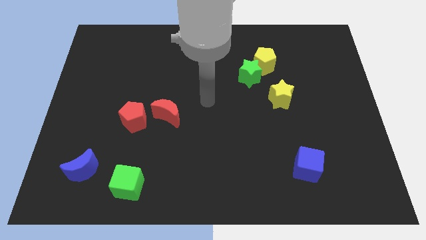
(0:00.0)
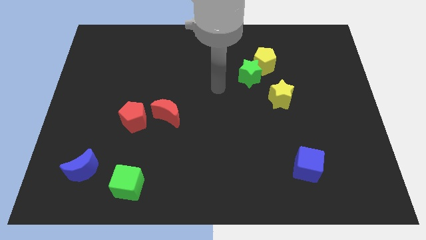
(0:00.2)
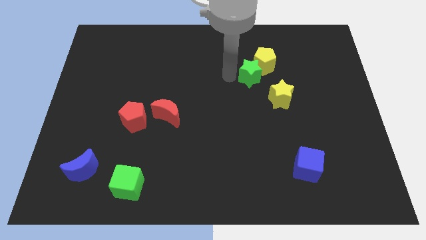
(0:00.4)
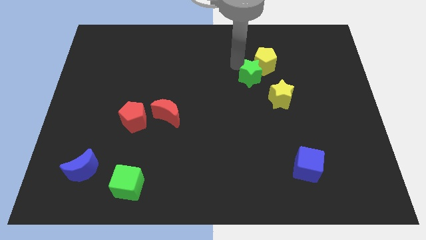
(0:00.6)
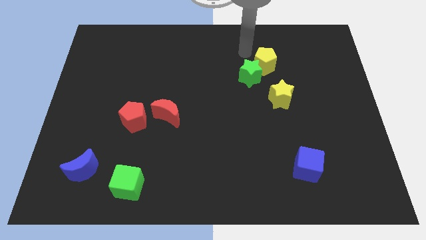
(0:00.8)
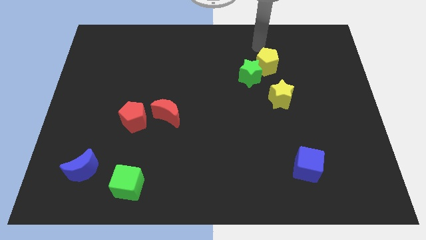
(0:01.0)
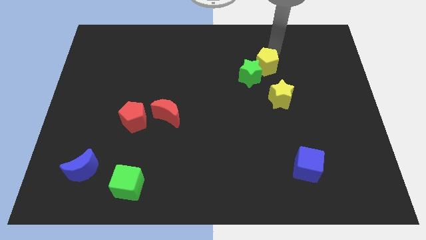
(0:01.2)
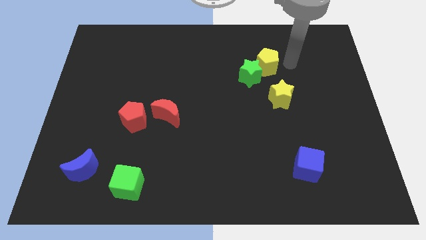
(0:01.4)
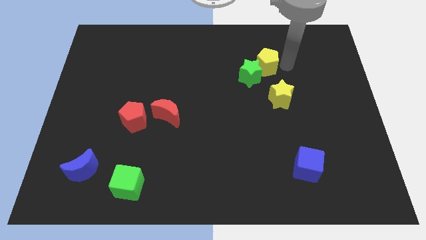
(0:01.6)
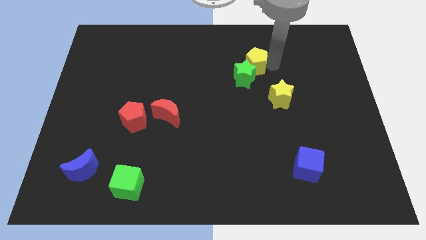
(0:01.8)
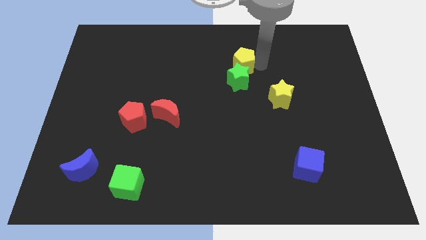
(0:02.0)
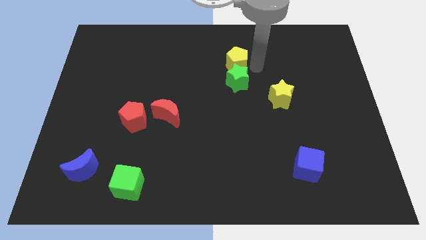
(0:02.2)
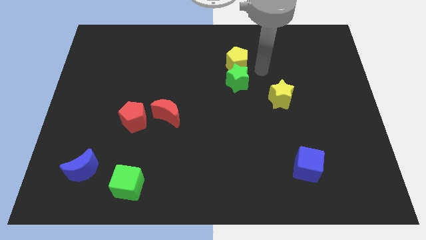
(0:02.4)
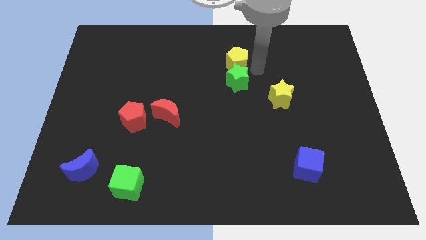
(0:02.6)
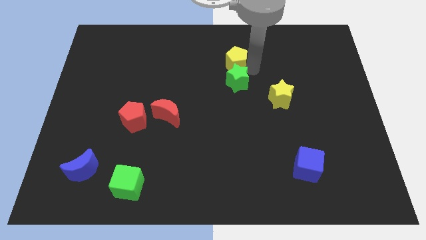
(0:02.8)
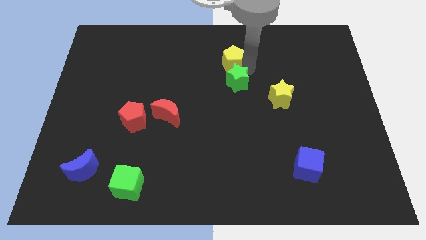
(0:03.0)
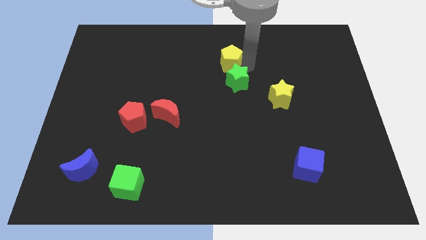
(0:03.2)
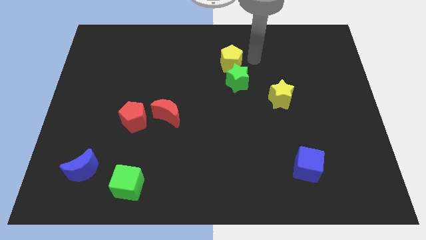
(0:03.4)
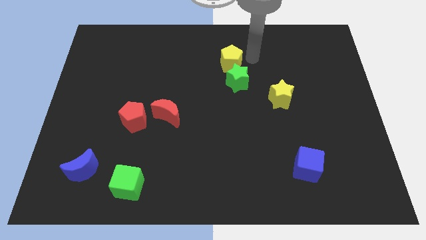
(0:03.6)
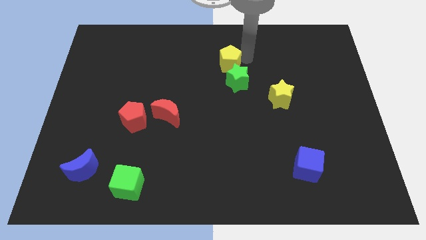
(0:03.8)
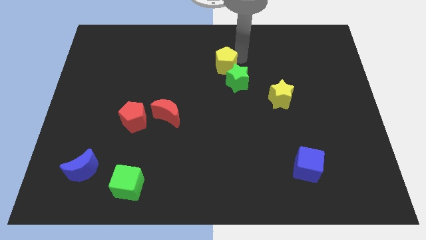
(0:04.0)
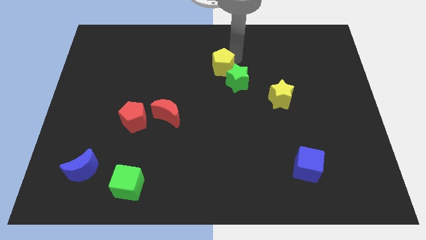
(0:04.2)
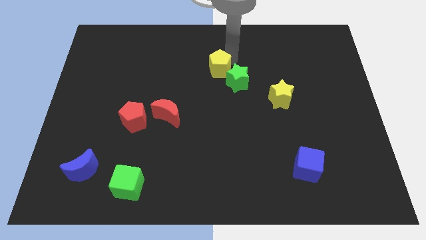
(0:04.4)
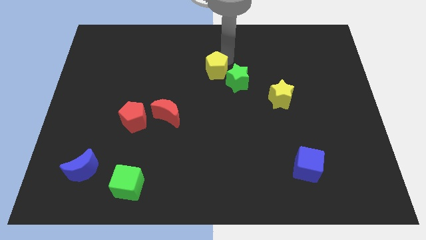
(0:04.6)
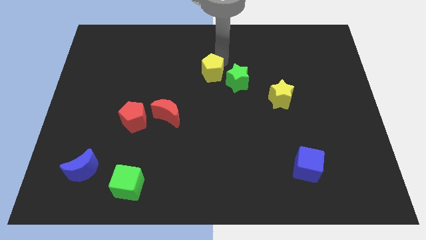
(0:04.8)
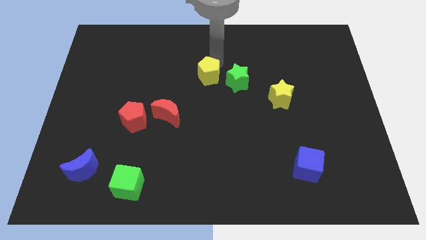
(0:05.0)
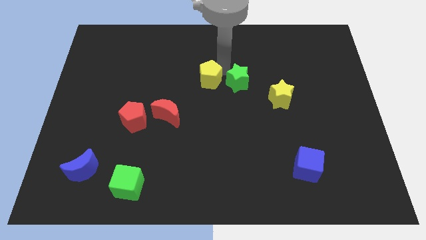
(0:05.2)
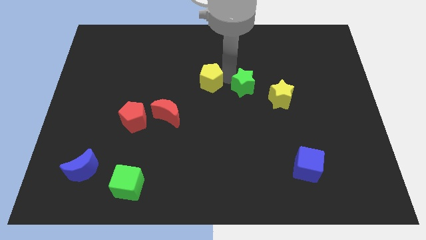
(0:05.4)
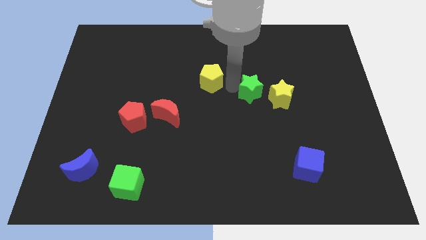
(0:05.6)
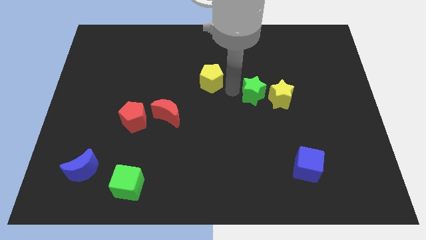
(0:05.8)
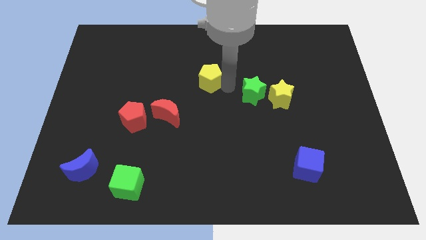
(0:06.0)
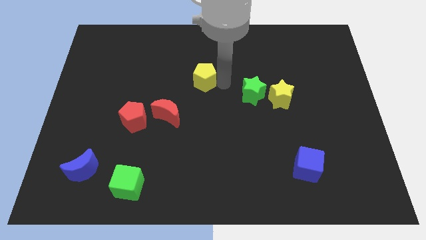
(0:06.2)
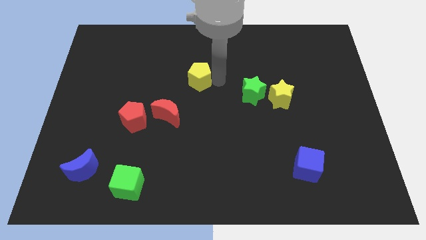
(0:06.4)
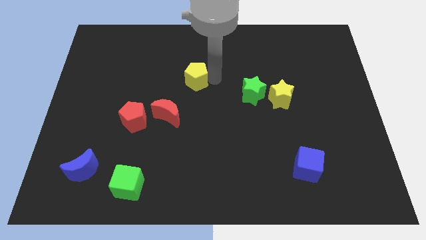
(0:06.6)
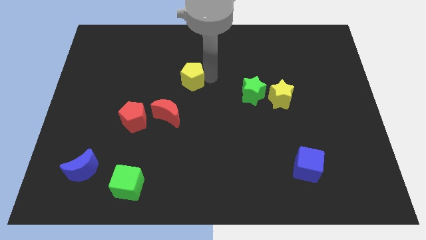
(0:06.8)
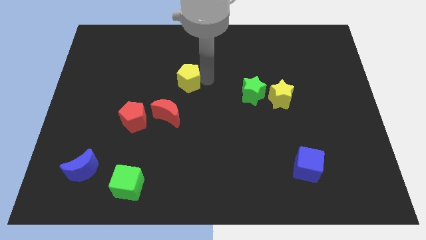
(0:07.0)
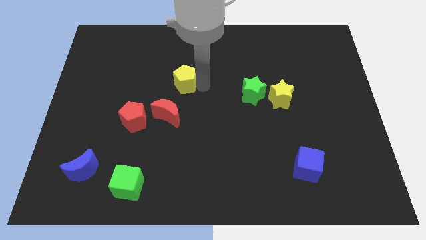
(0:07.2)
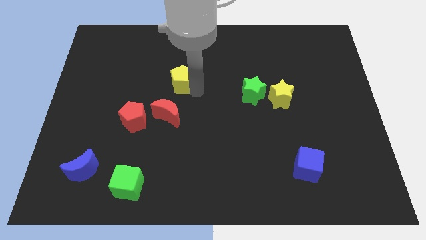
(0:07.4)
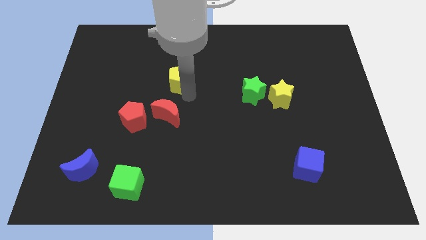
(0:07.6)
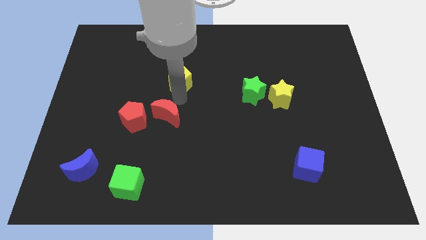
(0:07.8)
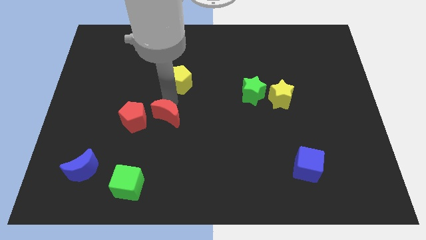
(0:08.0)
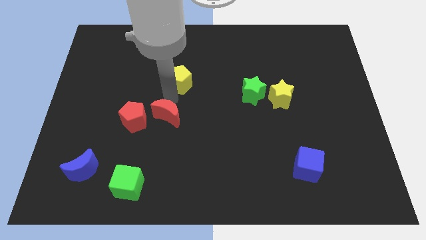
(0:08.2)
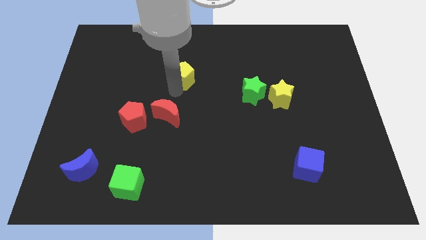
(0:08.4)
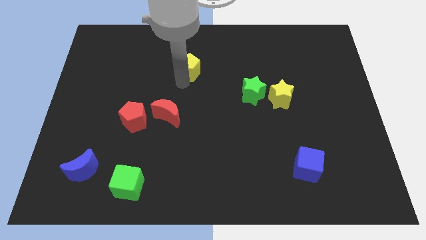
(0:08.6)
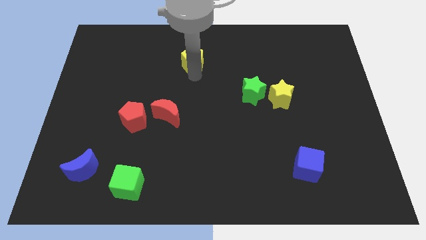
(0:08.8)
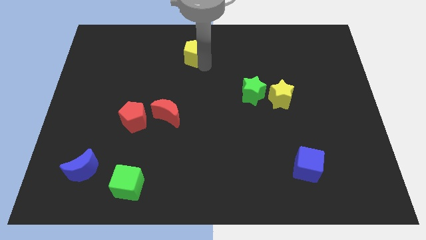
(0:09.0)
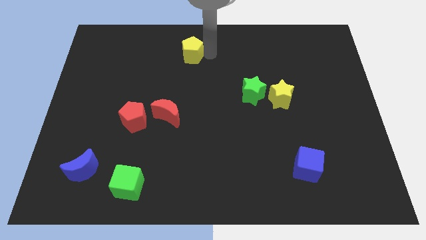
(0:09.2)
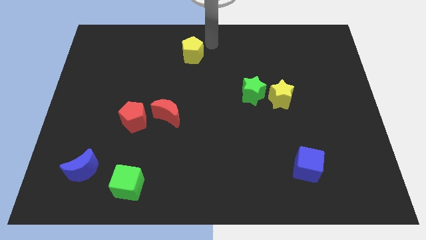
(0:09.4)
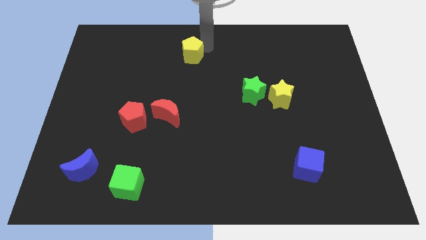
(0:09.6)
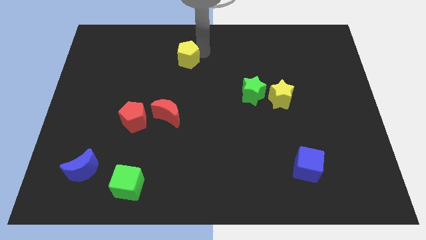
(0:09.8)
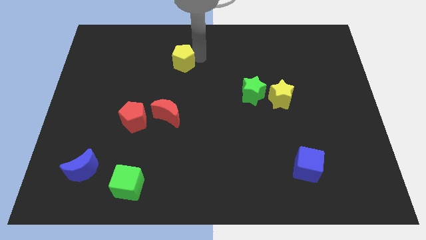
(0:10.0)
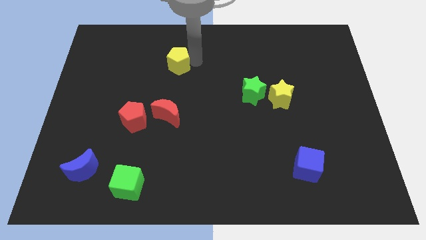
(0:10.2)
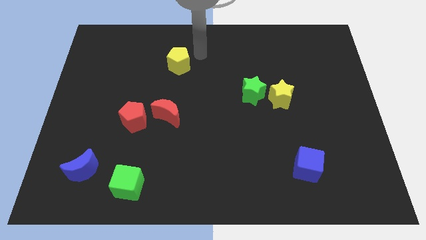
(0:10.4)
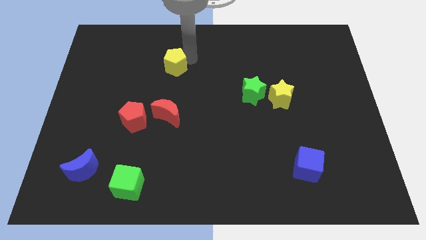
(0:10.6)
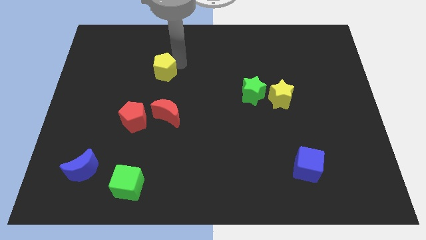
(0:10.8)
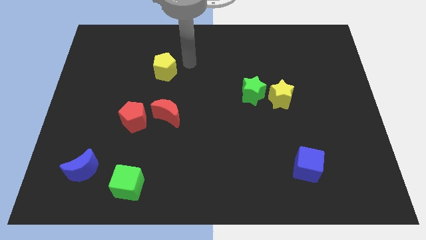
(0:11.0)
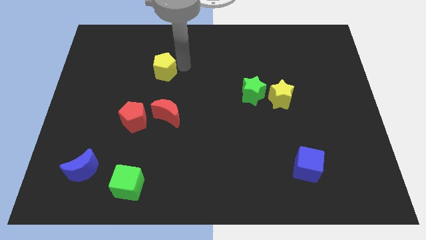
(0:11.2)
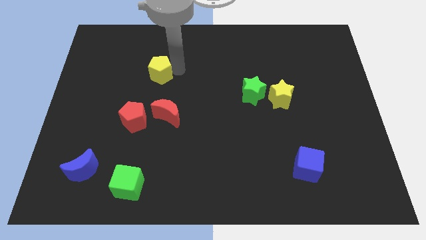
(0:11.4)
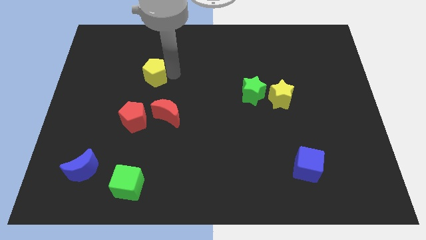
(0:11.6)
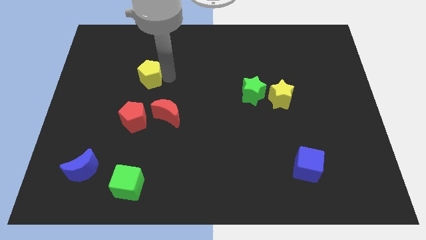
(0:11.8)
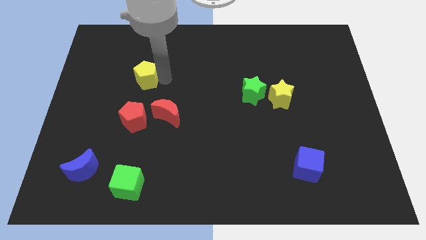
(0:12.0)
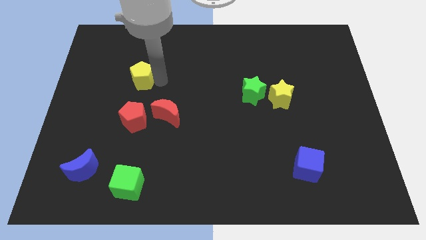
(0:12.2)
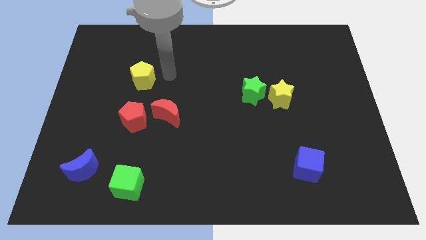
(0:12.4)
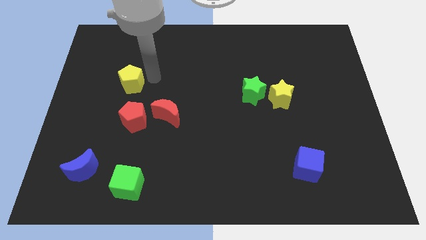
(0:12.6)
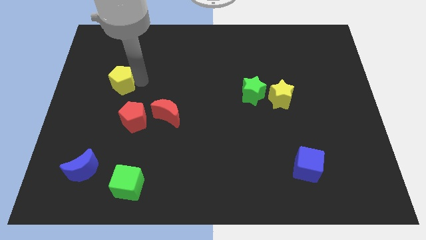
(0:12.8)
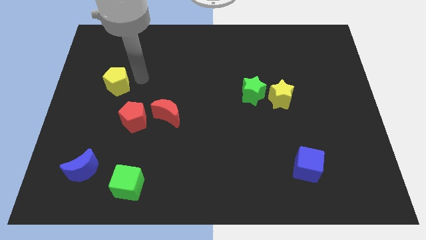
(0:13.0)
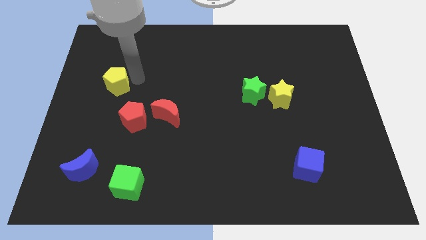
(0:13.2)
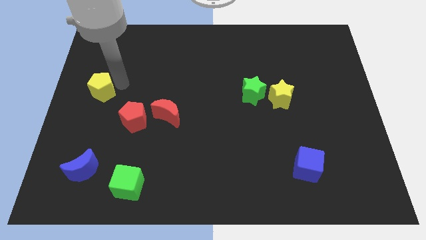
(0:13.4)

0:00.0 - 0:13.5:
slide the yellow pentagon to the left side
